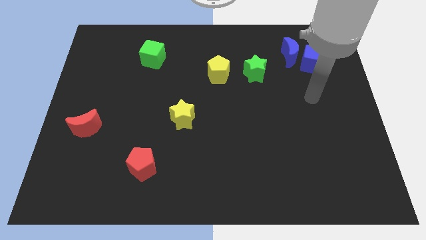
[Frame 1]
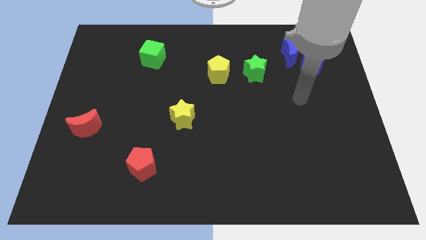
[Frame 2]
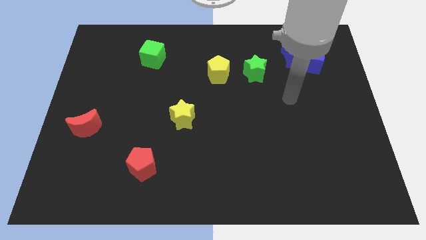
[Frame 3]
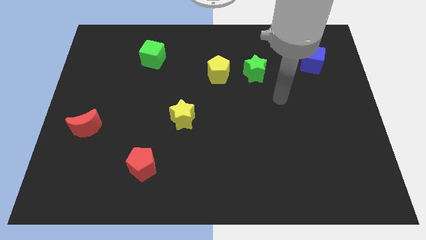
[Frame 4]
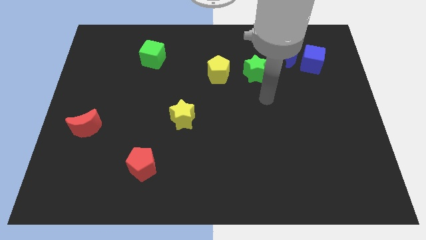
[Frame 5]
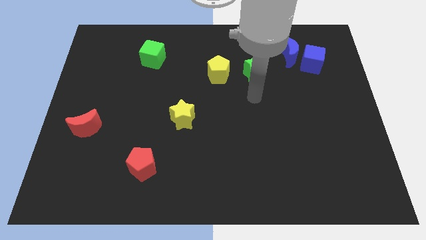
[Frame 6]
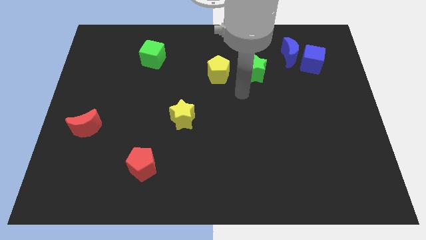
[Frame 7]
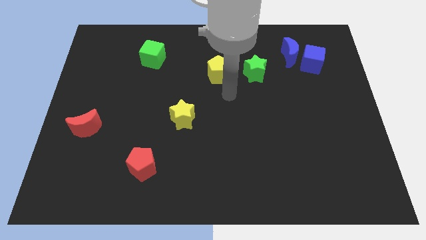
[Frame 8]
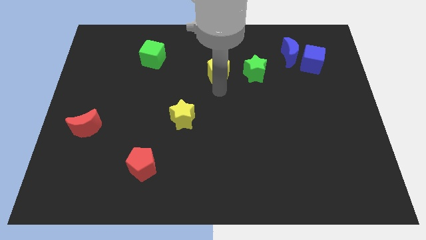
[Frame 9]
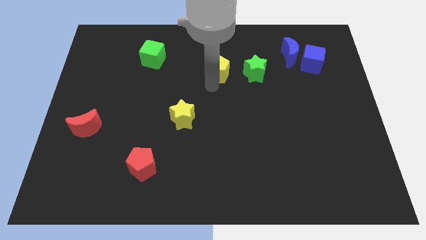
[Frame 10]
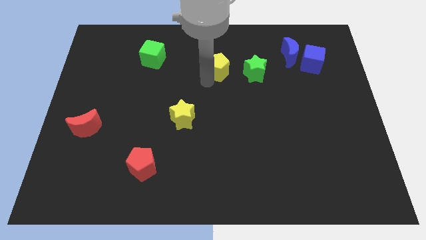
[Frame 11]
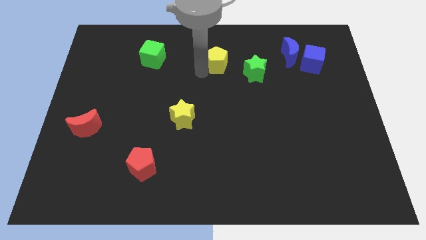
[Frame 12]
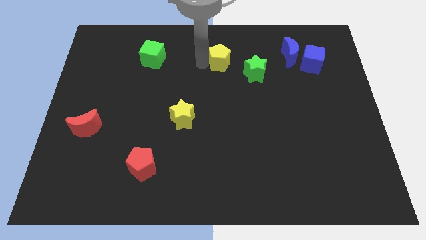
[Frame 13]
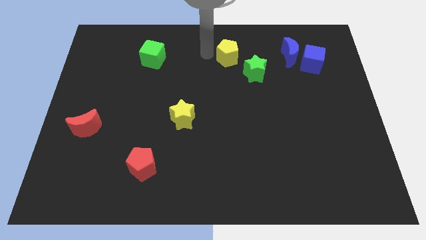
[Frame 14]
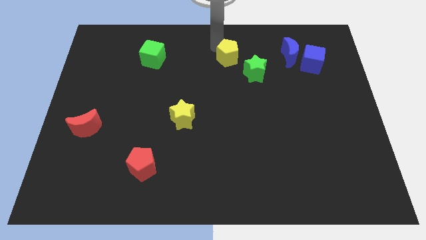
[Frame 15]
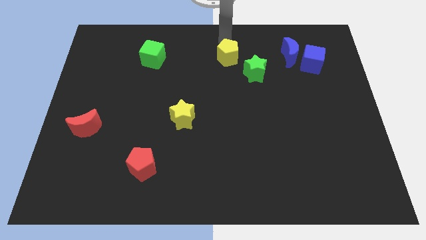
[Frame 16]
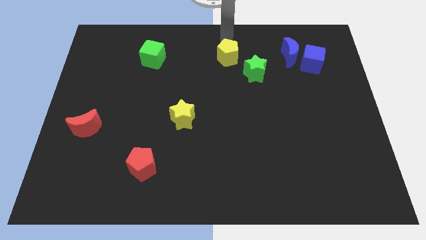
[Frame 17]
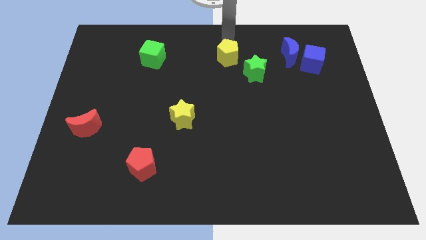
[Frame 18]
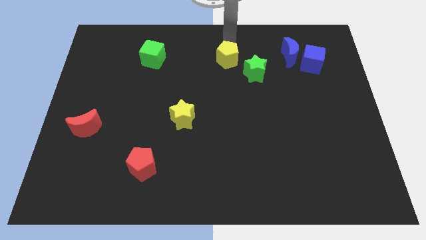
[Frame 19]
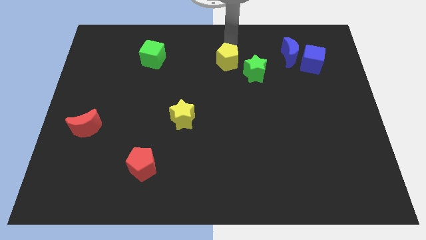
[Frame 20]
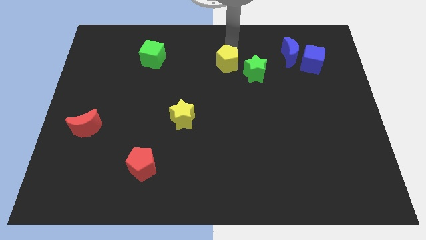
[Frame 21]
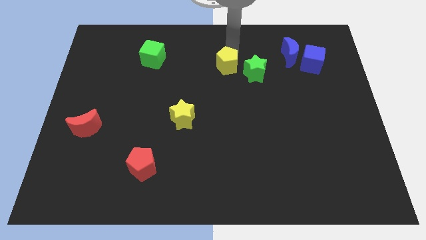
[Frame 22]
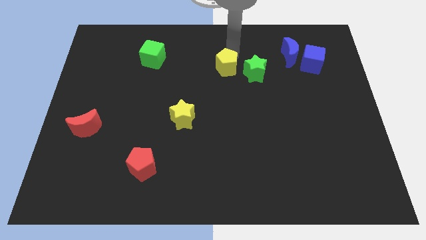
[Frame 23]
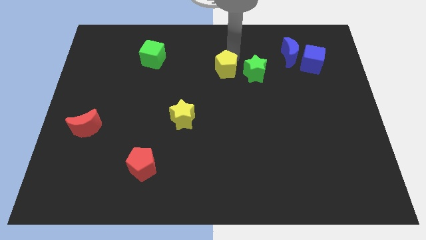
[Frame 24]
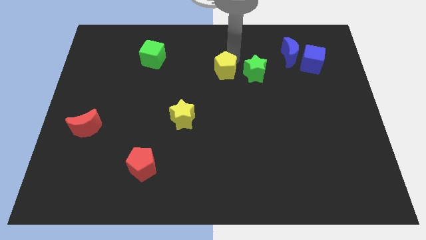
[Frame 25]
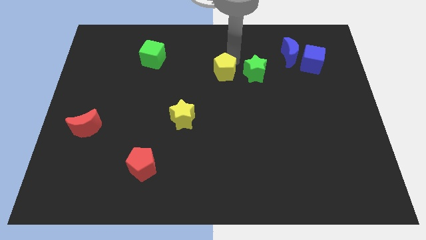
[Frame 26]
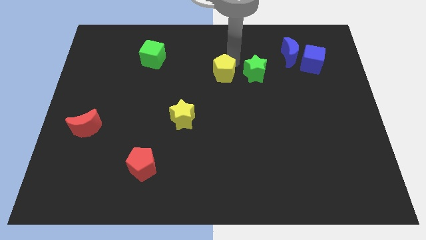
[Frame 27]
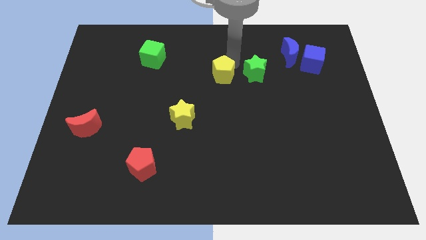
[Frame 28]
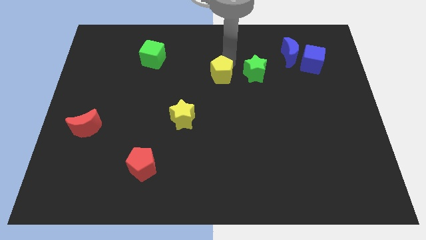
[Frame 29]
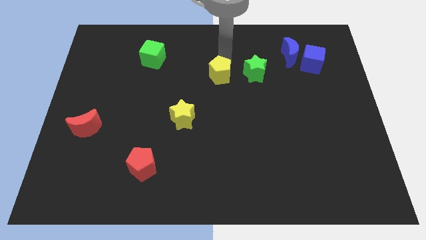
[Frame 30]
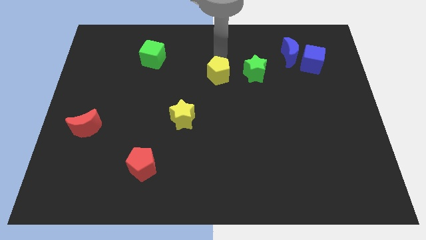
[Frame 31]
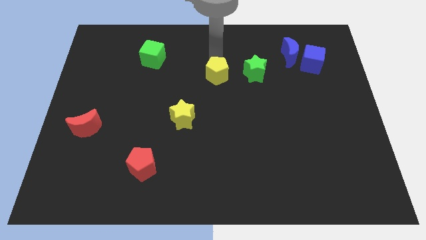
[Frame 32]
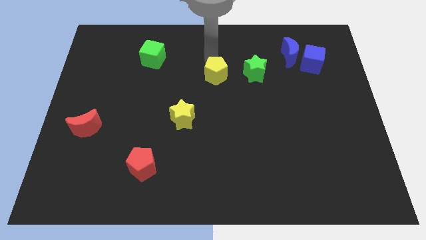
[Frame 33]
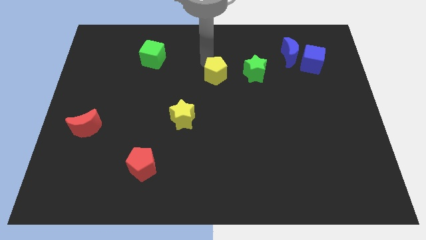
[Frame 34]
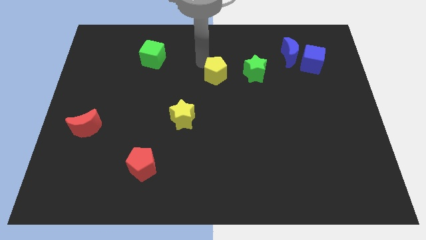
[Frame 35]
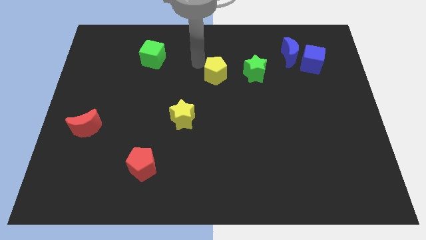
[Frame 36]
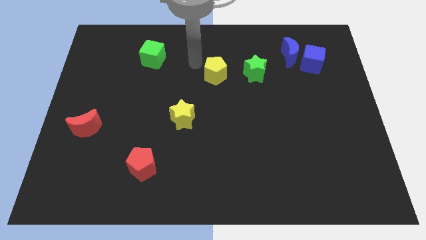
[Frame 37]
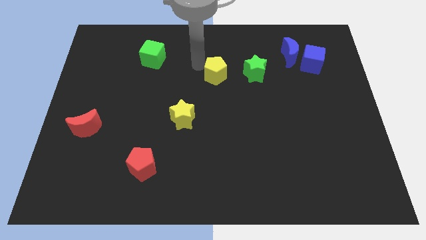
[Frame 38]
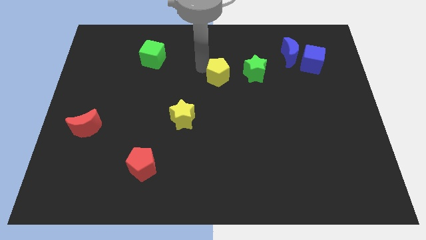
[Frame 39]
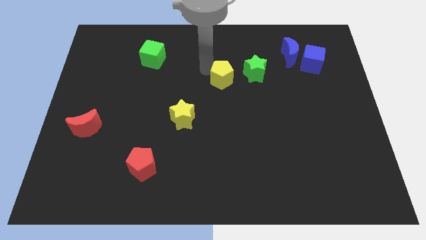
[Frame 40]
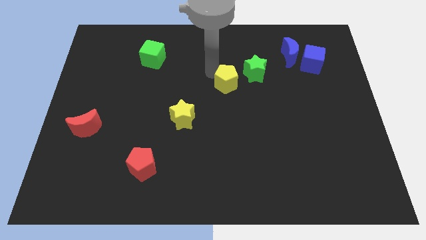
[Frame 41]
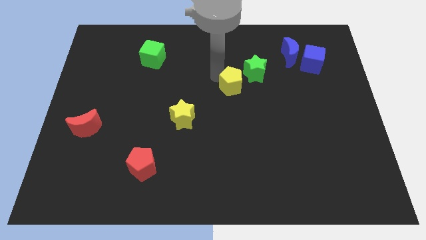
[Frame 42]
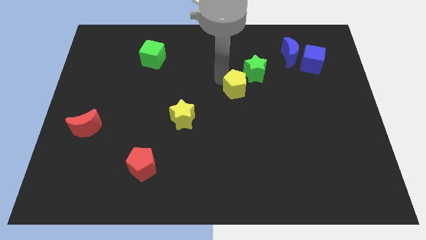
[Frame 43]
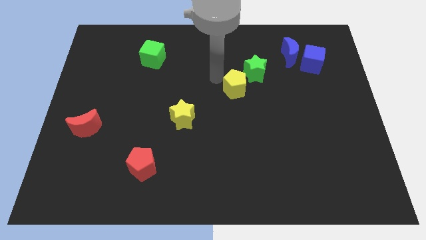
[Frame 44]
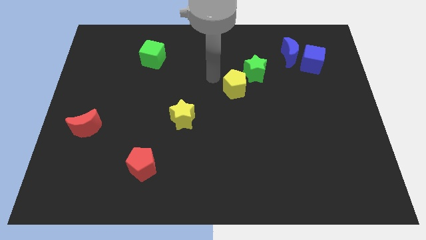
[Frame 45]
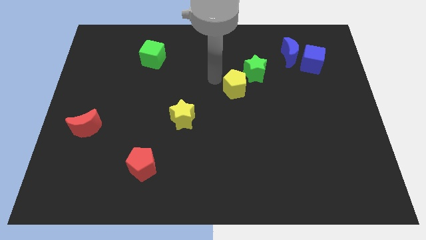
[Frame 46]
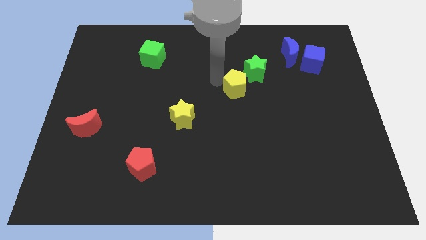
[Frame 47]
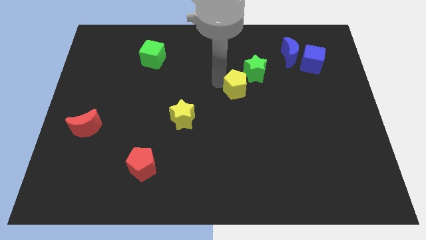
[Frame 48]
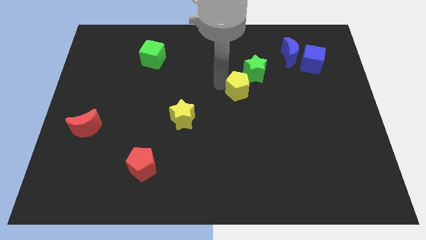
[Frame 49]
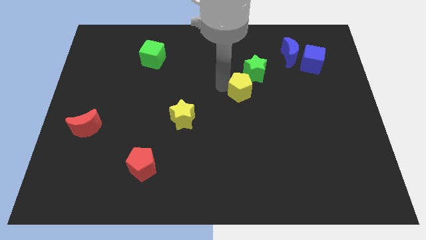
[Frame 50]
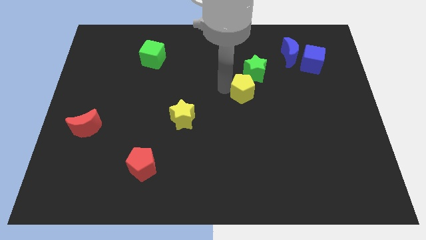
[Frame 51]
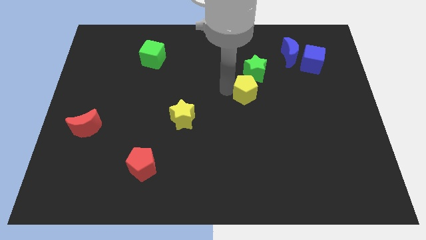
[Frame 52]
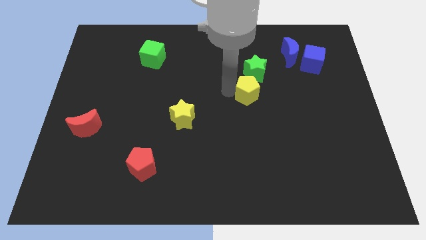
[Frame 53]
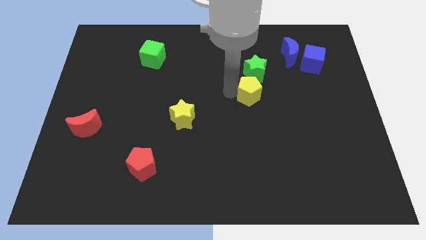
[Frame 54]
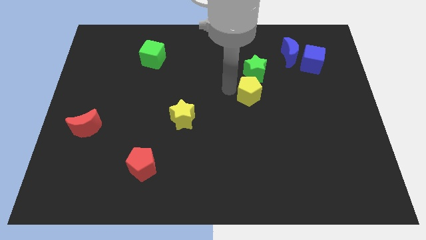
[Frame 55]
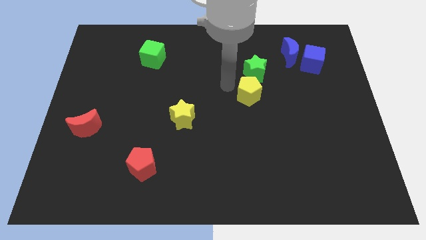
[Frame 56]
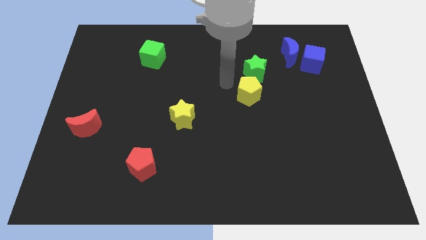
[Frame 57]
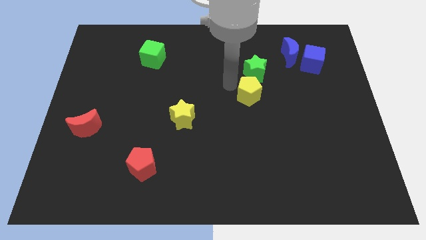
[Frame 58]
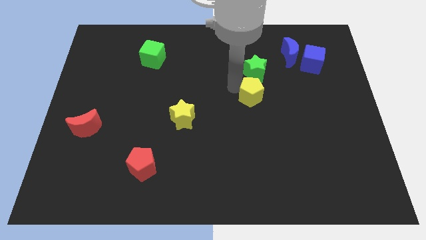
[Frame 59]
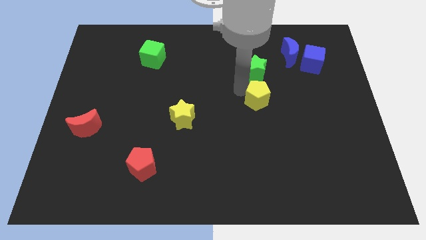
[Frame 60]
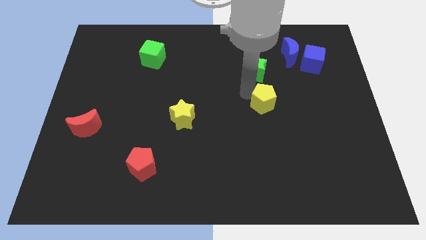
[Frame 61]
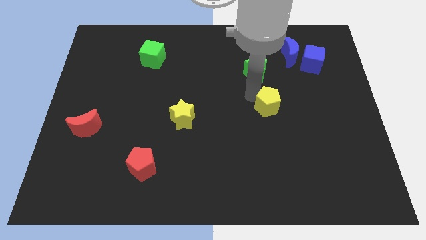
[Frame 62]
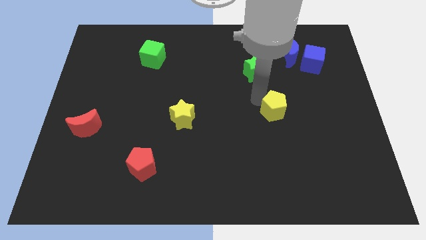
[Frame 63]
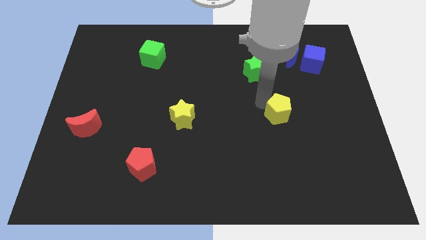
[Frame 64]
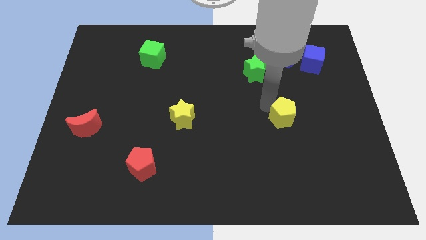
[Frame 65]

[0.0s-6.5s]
slide the yellow pentagon down and then to the right

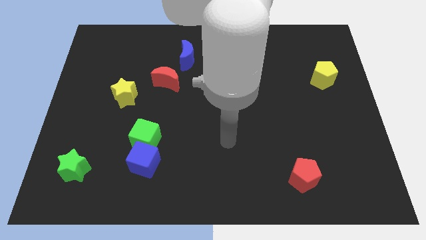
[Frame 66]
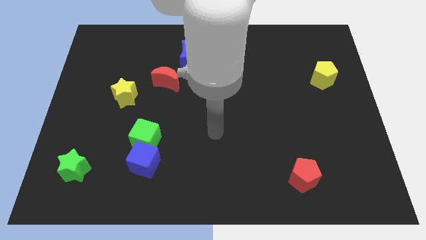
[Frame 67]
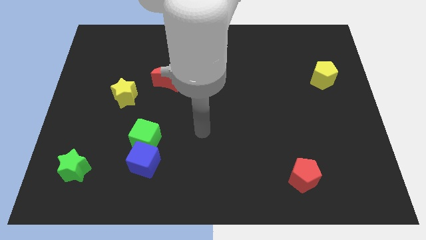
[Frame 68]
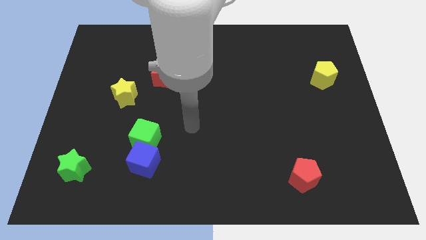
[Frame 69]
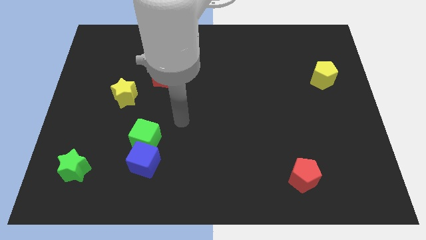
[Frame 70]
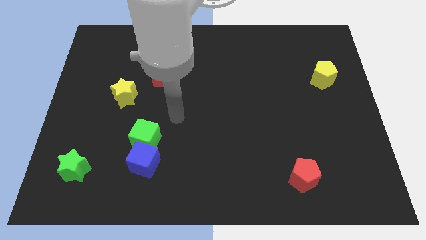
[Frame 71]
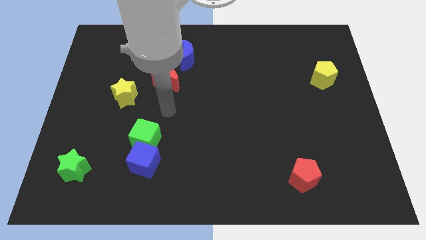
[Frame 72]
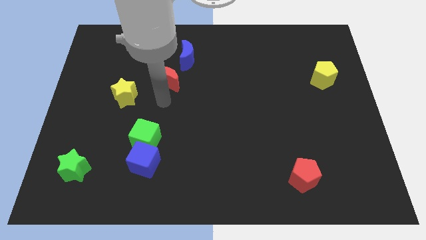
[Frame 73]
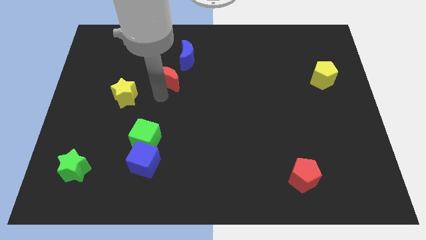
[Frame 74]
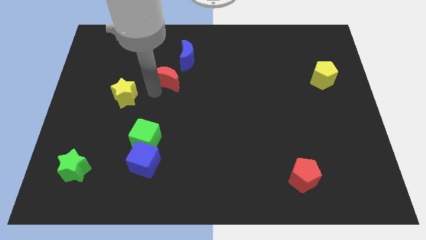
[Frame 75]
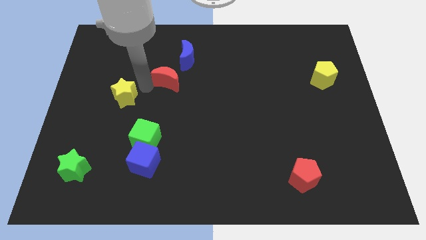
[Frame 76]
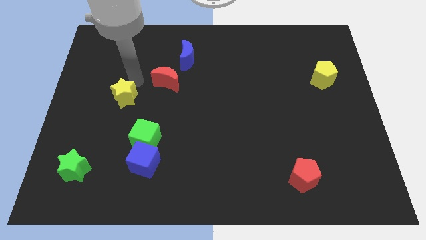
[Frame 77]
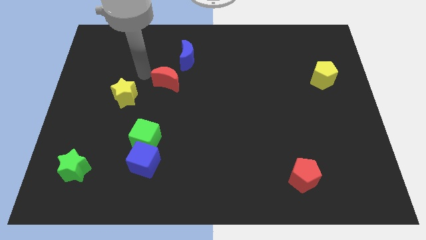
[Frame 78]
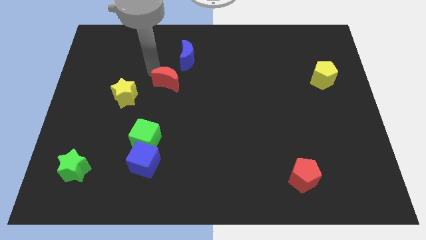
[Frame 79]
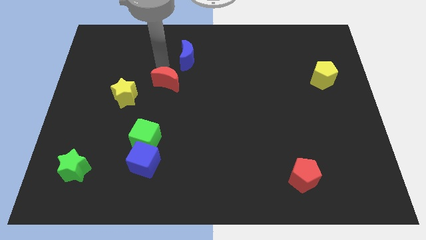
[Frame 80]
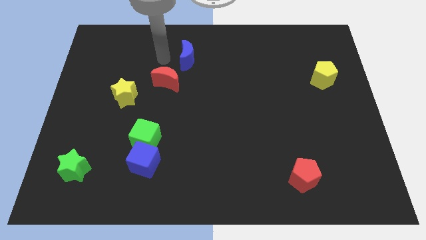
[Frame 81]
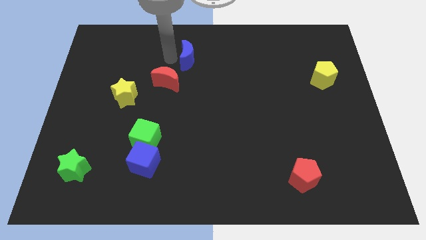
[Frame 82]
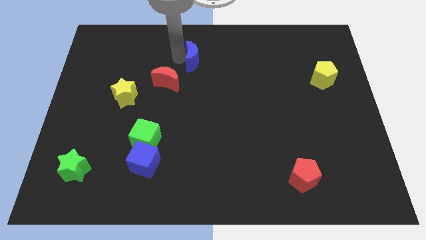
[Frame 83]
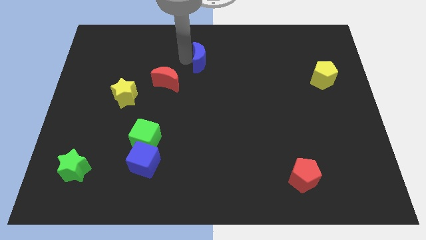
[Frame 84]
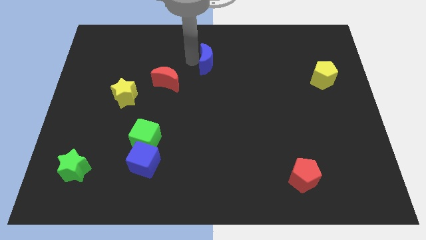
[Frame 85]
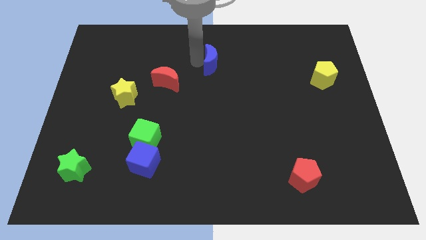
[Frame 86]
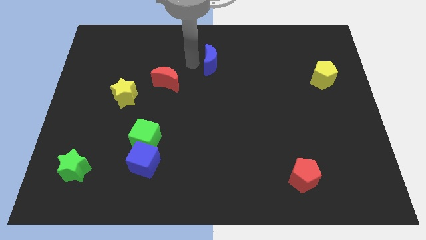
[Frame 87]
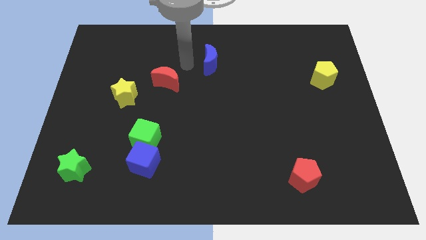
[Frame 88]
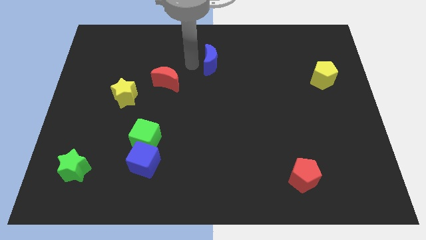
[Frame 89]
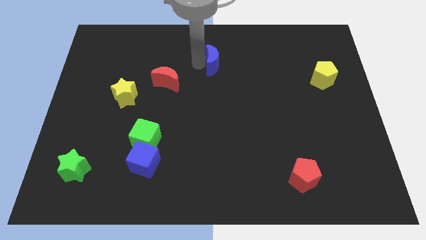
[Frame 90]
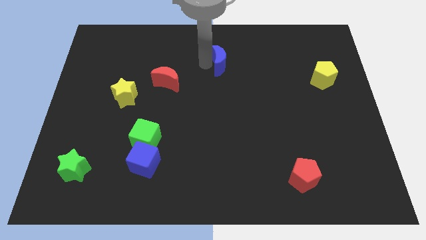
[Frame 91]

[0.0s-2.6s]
slightly move the blue moon right
